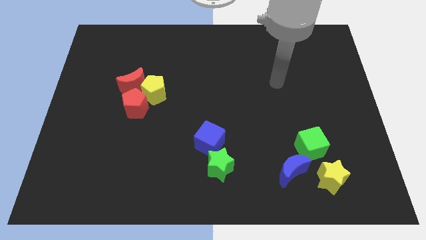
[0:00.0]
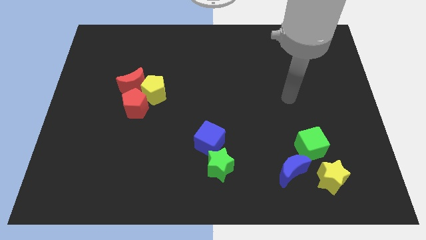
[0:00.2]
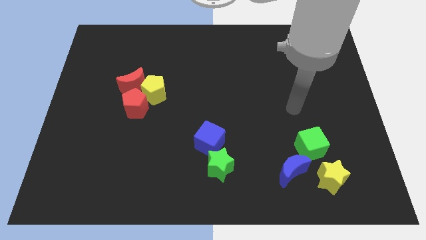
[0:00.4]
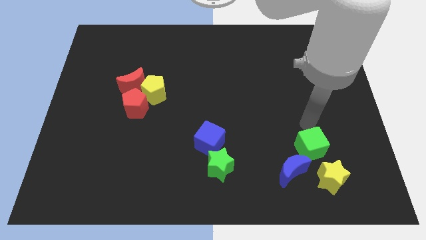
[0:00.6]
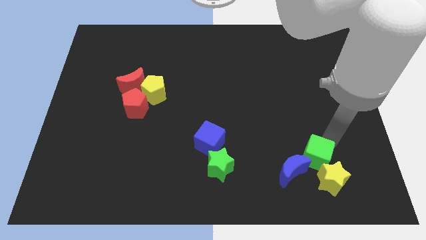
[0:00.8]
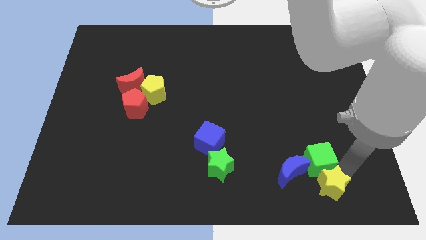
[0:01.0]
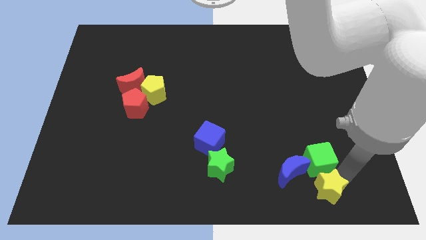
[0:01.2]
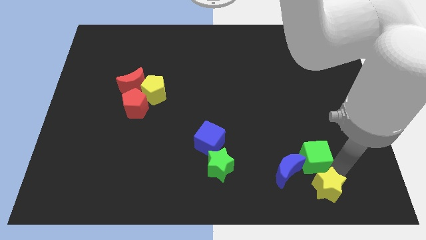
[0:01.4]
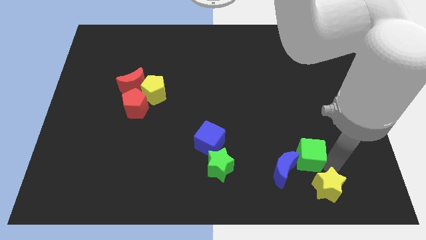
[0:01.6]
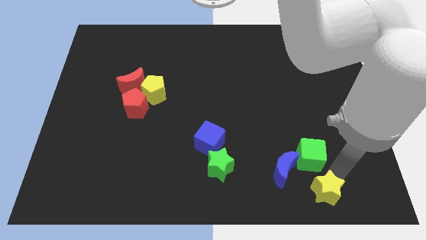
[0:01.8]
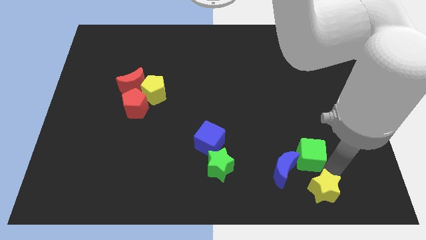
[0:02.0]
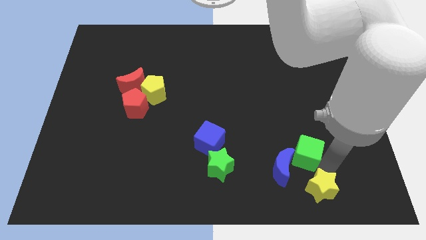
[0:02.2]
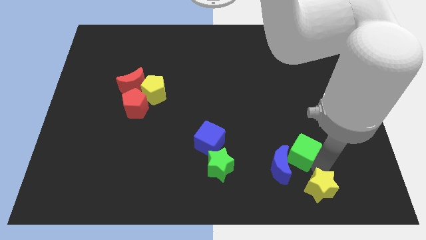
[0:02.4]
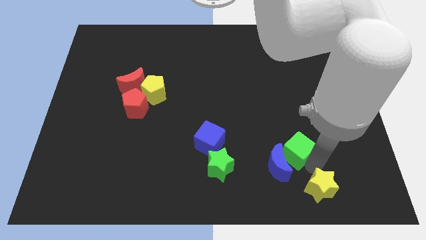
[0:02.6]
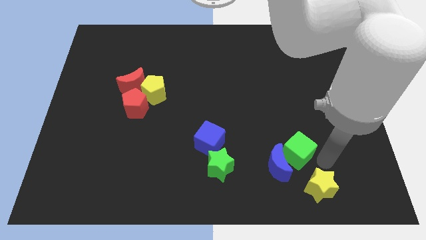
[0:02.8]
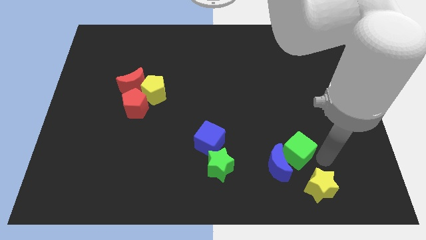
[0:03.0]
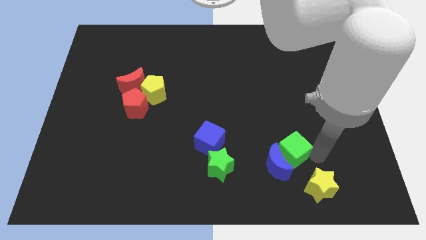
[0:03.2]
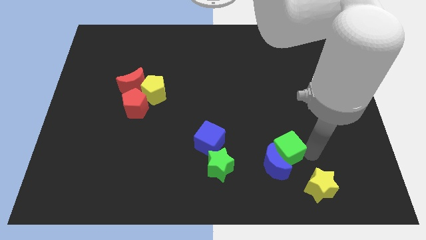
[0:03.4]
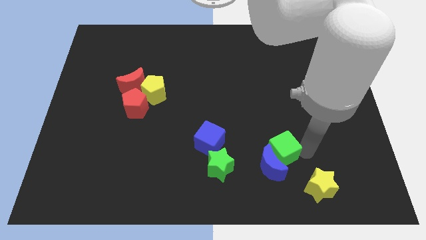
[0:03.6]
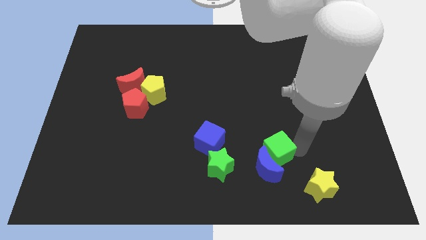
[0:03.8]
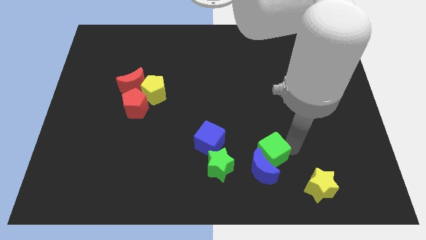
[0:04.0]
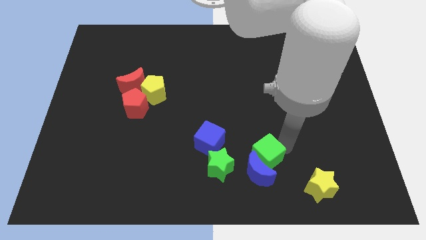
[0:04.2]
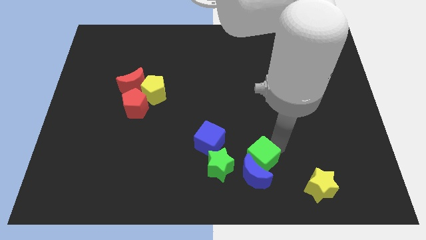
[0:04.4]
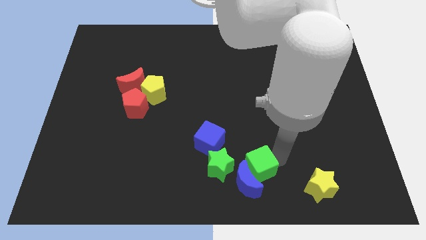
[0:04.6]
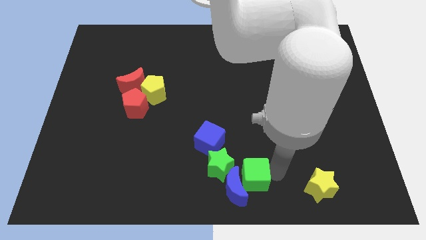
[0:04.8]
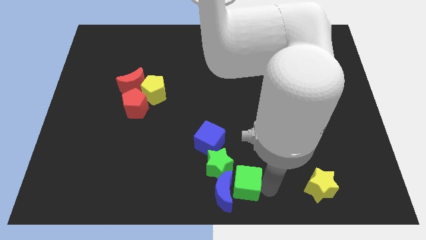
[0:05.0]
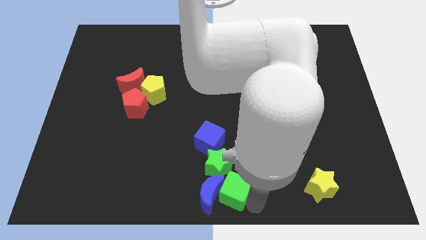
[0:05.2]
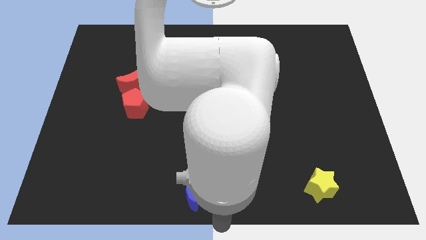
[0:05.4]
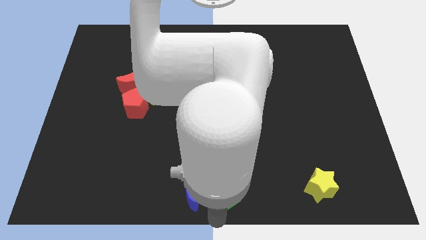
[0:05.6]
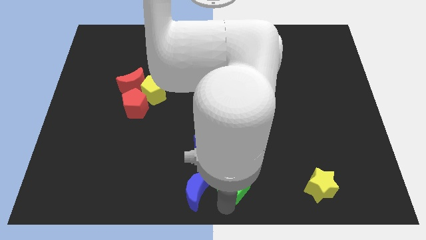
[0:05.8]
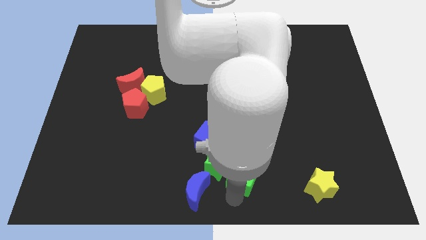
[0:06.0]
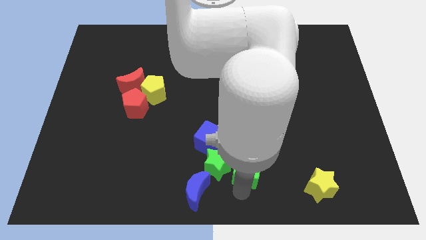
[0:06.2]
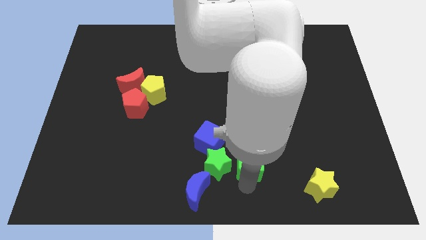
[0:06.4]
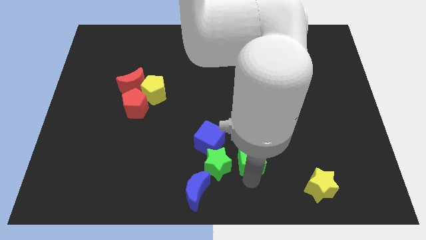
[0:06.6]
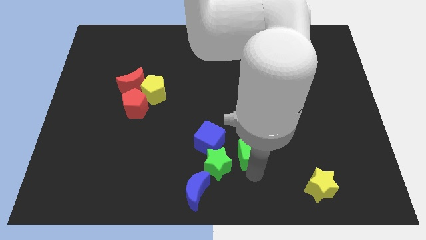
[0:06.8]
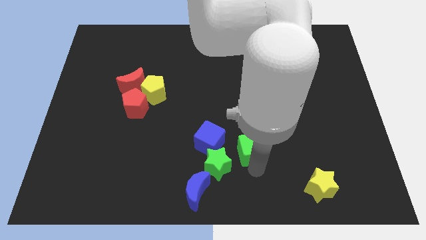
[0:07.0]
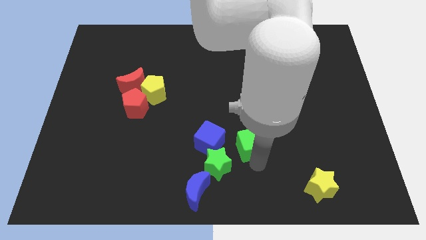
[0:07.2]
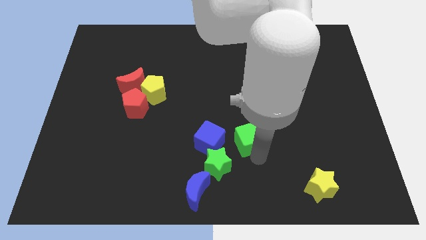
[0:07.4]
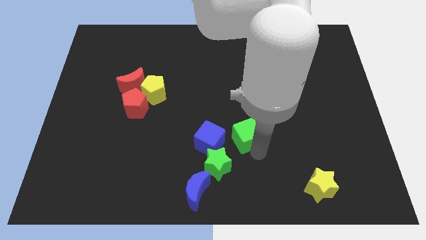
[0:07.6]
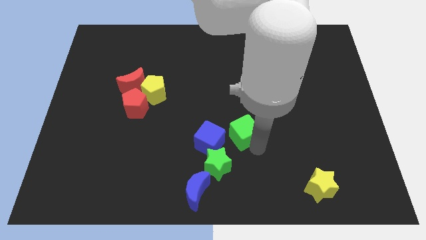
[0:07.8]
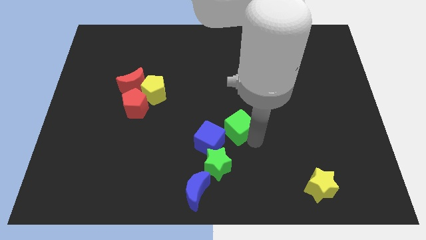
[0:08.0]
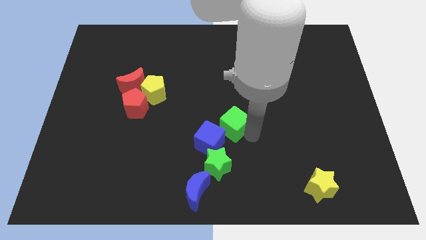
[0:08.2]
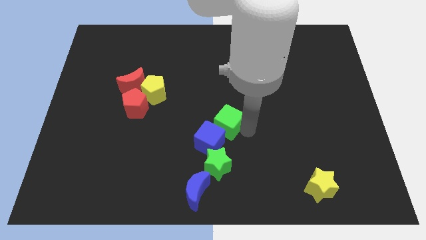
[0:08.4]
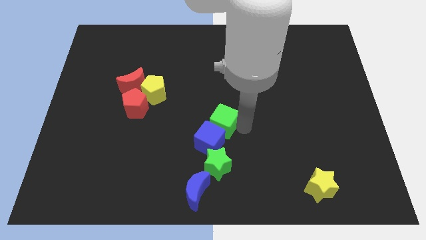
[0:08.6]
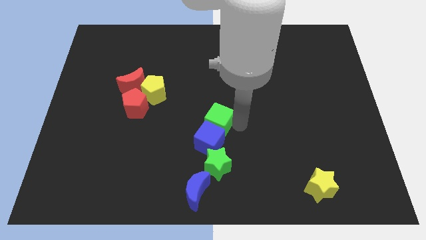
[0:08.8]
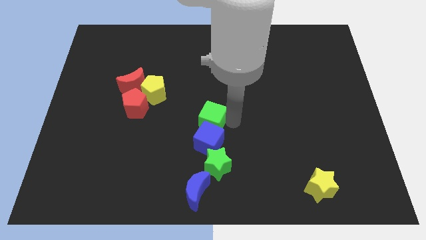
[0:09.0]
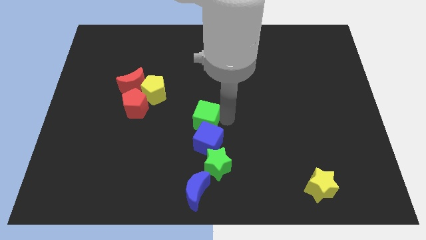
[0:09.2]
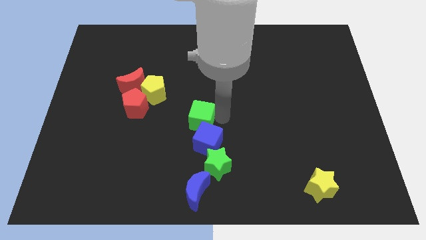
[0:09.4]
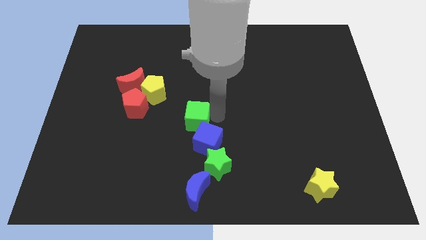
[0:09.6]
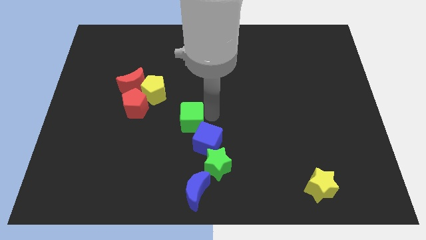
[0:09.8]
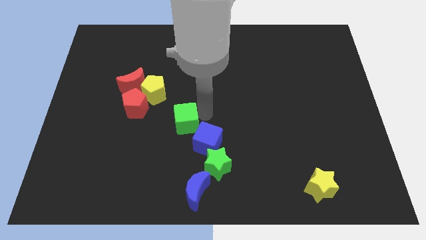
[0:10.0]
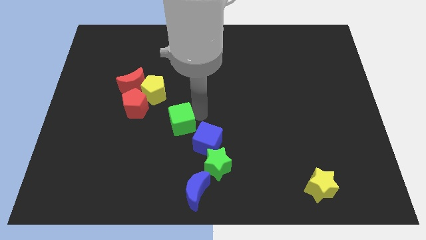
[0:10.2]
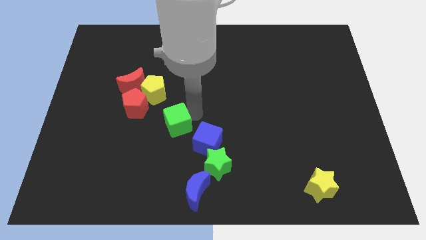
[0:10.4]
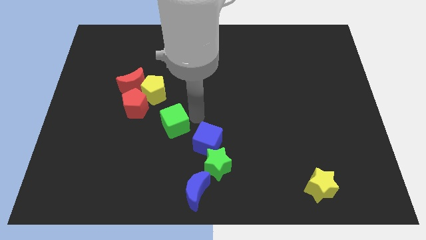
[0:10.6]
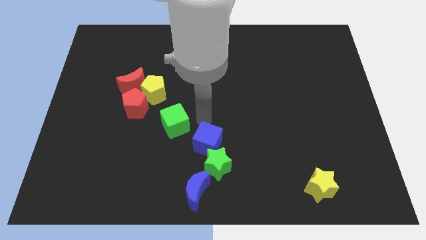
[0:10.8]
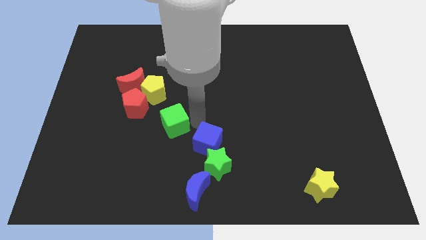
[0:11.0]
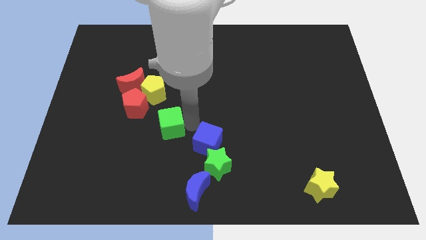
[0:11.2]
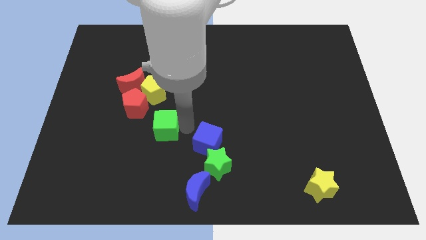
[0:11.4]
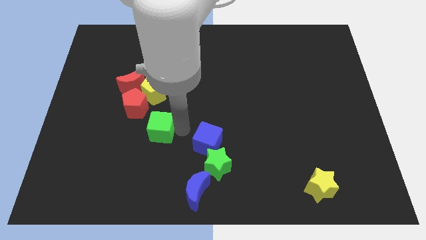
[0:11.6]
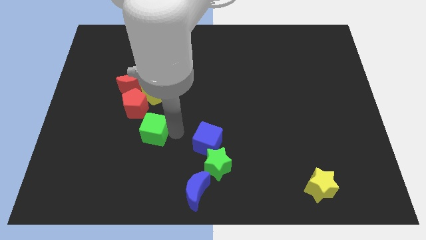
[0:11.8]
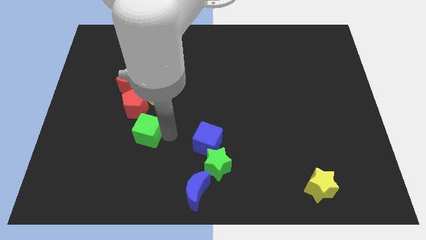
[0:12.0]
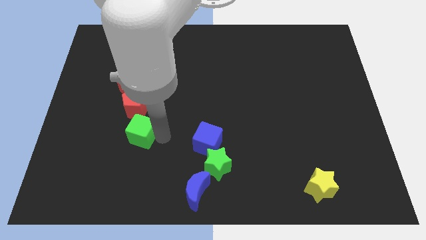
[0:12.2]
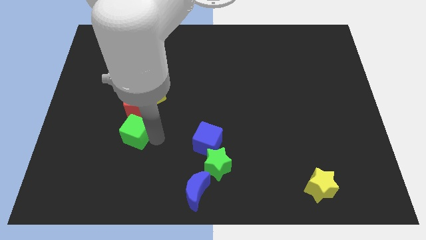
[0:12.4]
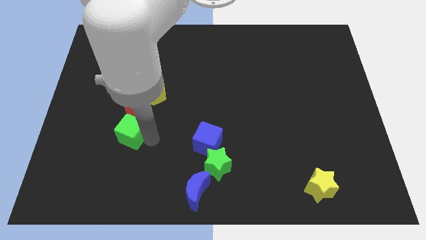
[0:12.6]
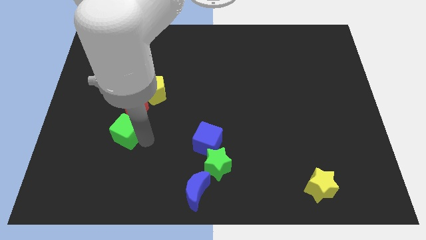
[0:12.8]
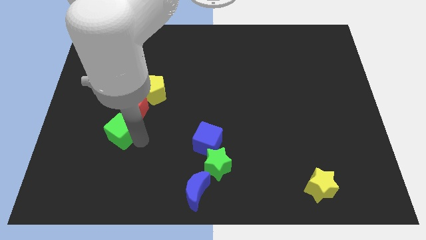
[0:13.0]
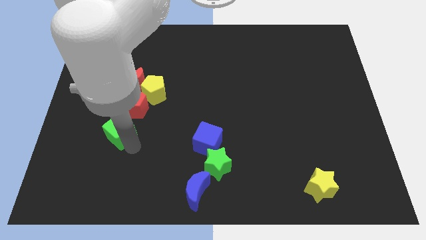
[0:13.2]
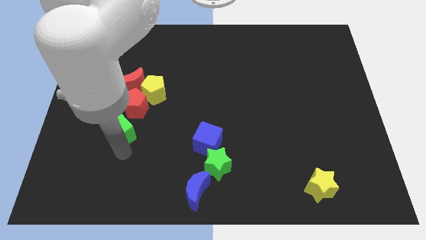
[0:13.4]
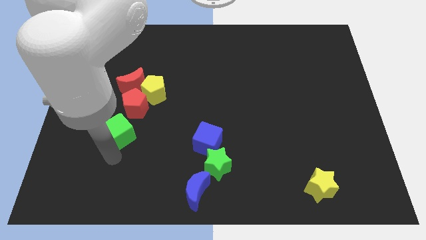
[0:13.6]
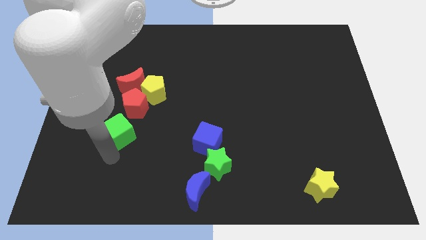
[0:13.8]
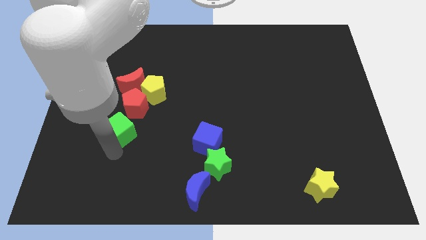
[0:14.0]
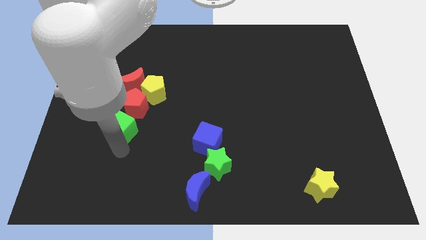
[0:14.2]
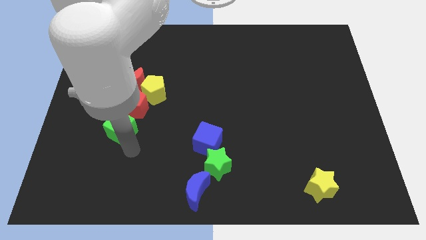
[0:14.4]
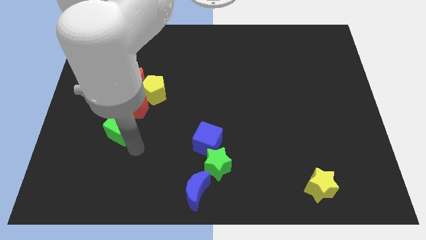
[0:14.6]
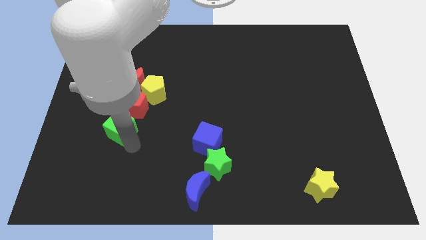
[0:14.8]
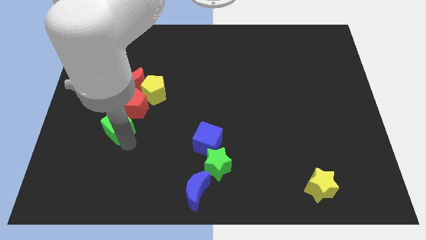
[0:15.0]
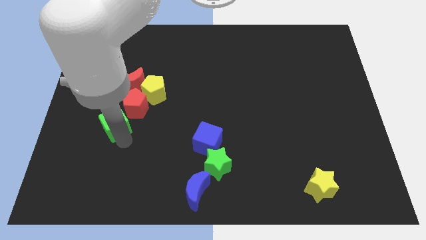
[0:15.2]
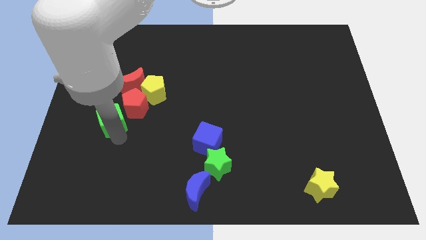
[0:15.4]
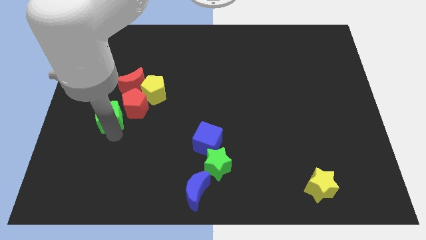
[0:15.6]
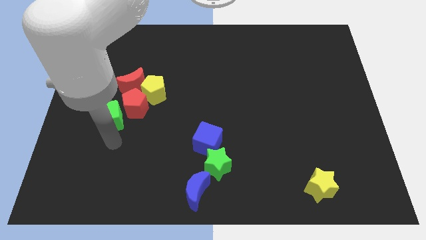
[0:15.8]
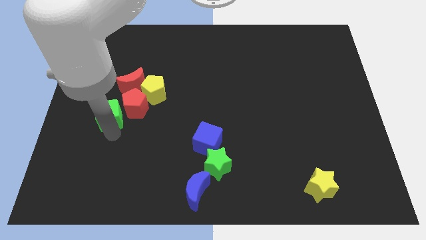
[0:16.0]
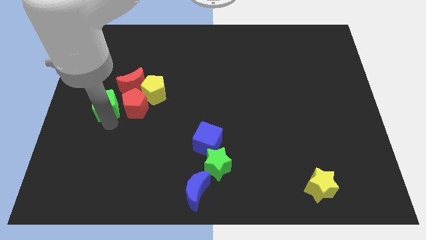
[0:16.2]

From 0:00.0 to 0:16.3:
slide the green cube to the top left of the red pentagon
